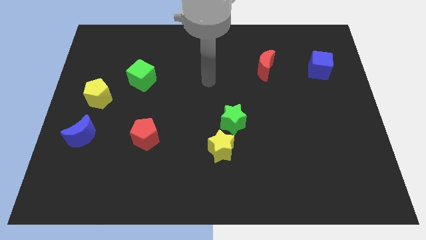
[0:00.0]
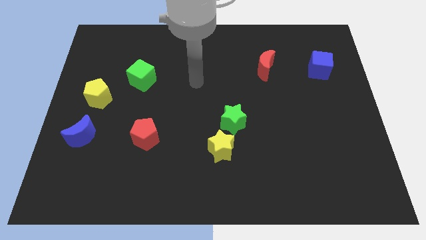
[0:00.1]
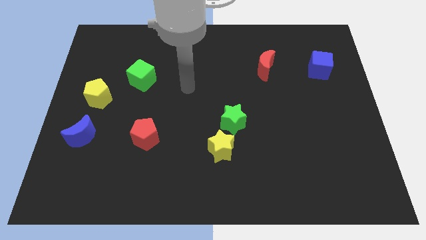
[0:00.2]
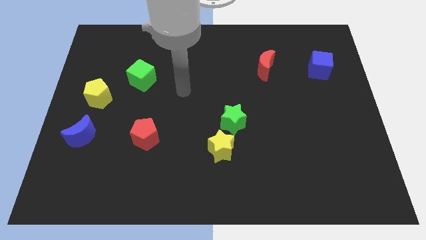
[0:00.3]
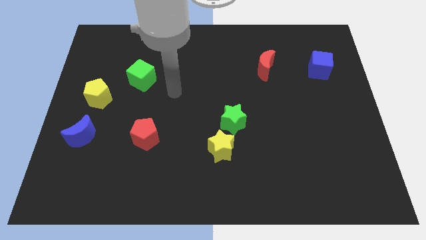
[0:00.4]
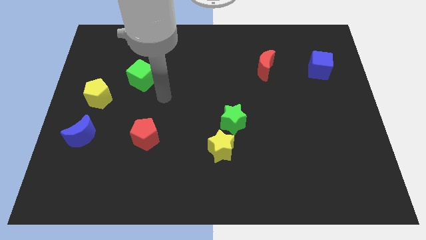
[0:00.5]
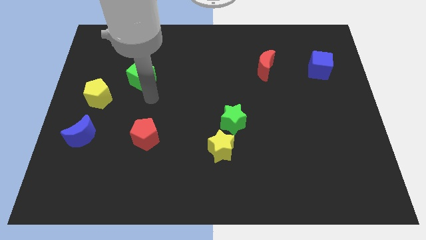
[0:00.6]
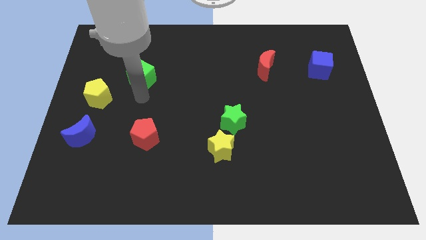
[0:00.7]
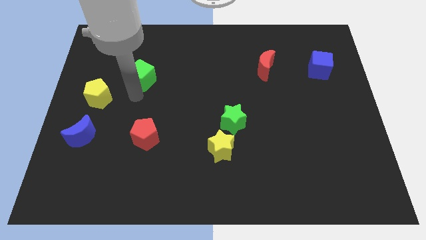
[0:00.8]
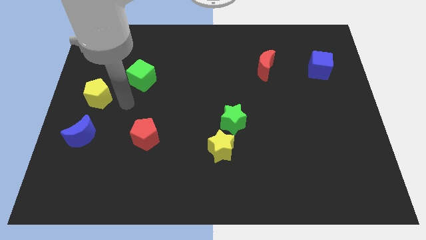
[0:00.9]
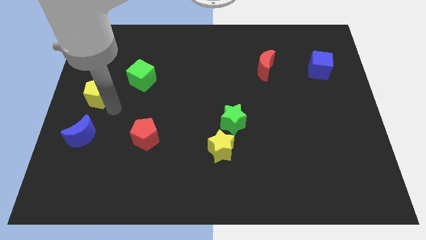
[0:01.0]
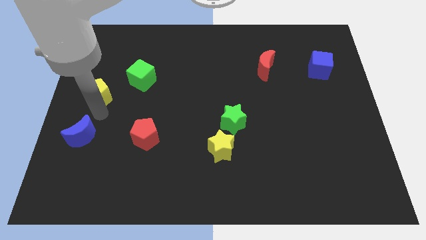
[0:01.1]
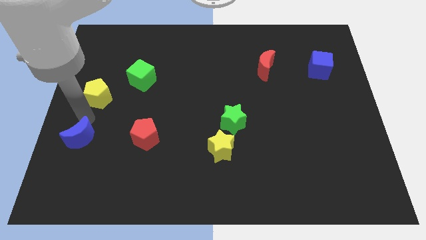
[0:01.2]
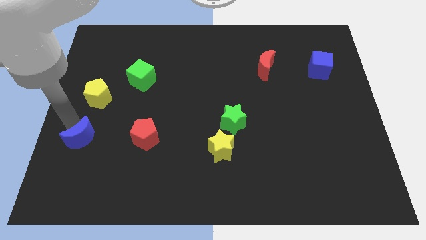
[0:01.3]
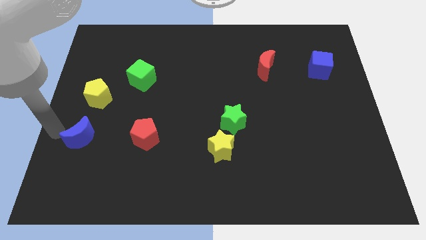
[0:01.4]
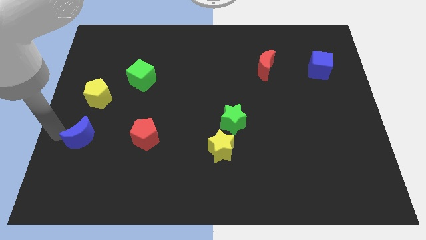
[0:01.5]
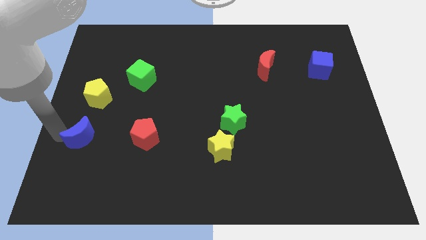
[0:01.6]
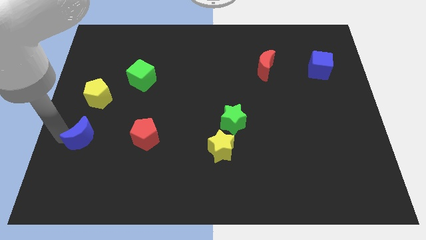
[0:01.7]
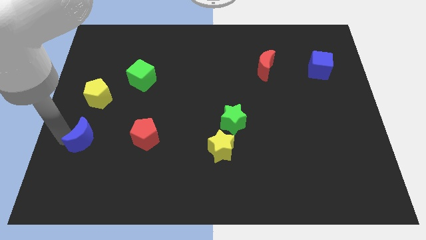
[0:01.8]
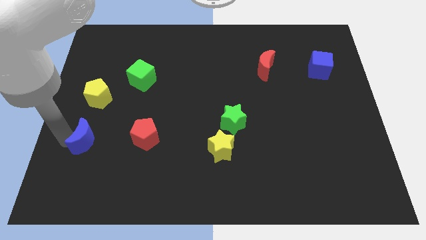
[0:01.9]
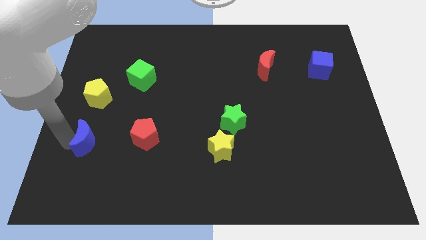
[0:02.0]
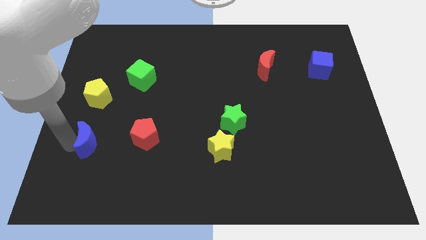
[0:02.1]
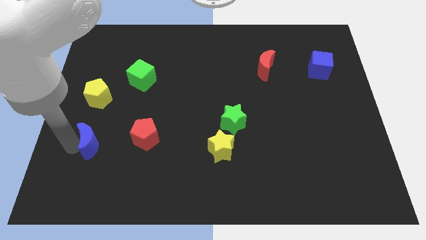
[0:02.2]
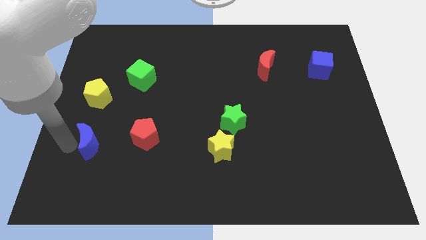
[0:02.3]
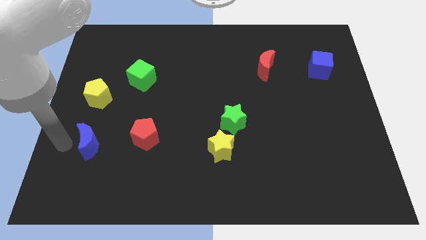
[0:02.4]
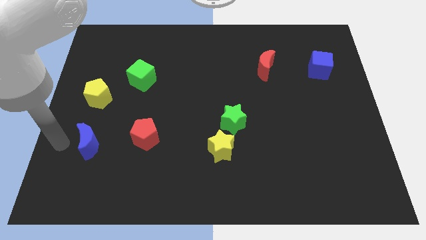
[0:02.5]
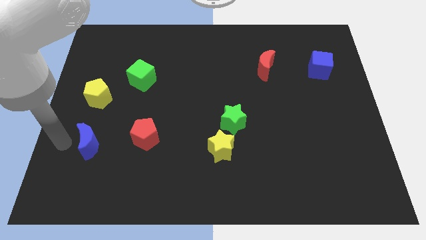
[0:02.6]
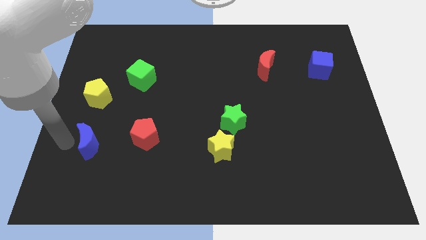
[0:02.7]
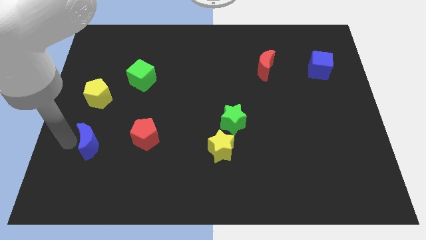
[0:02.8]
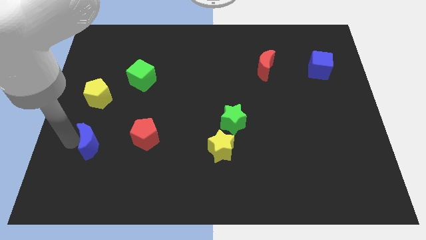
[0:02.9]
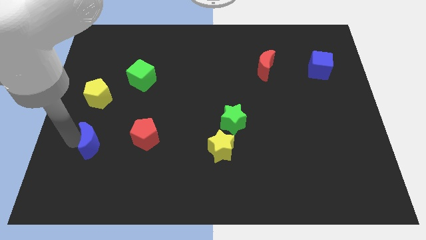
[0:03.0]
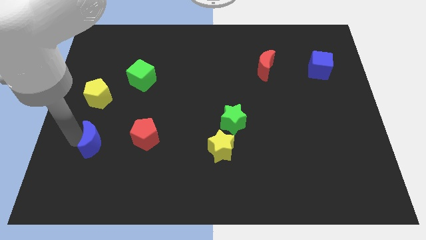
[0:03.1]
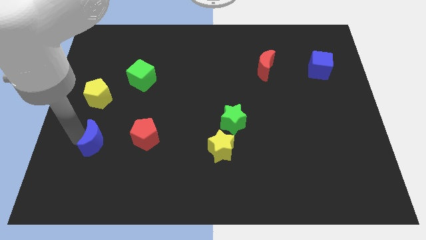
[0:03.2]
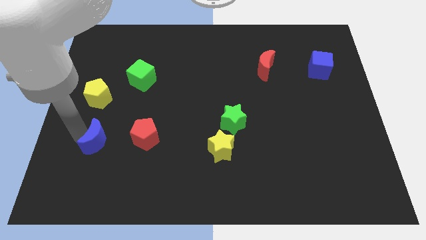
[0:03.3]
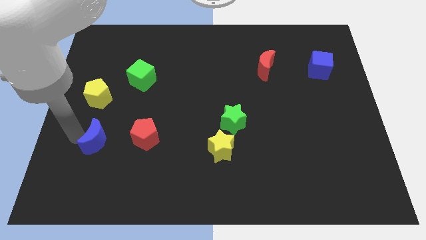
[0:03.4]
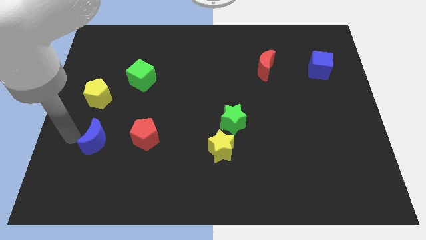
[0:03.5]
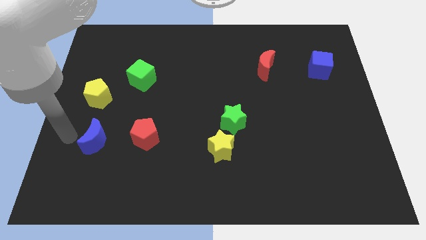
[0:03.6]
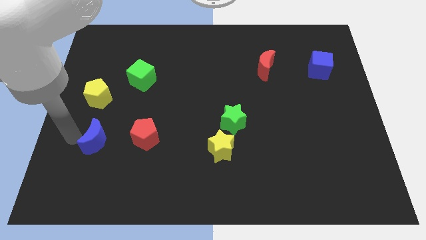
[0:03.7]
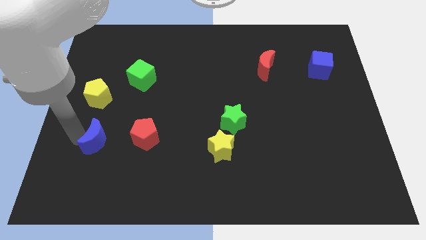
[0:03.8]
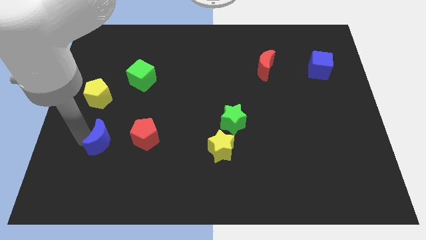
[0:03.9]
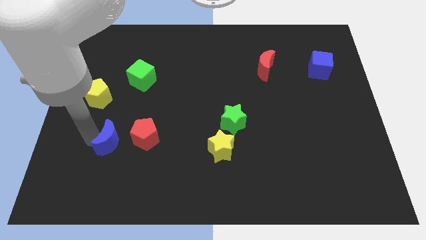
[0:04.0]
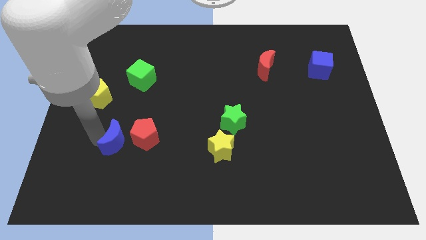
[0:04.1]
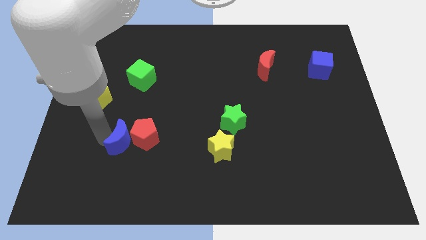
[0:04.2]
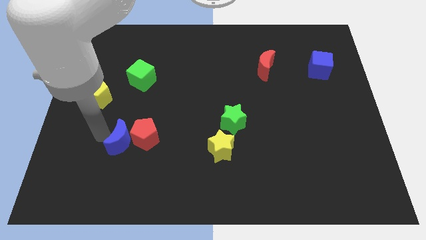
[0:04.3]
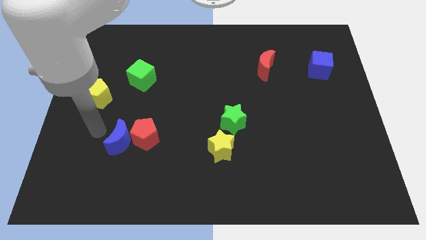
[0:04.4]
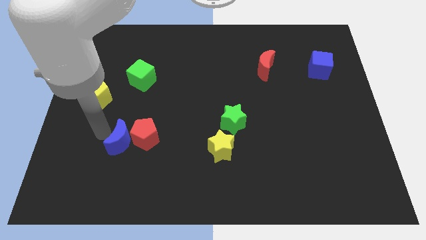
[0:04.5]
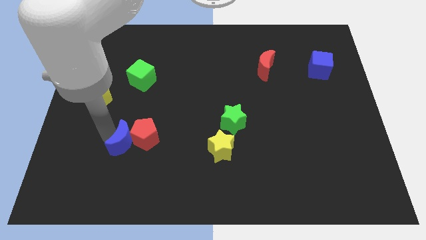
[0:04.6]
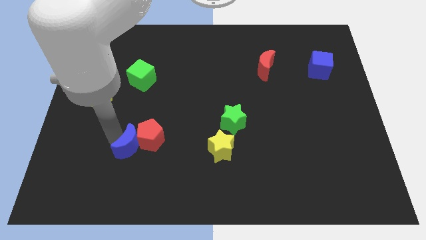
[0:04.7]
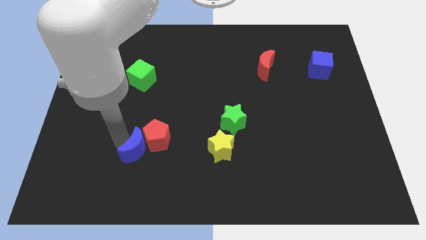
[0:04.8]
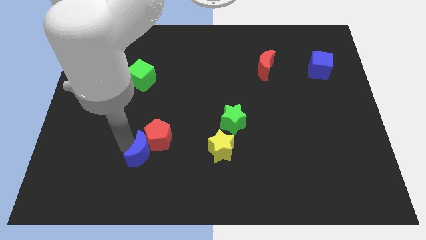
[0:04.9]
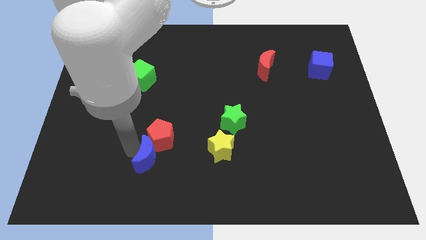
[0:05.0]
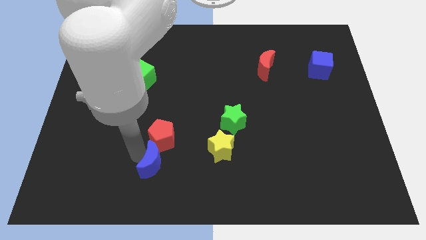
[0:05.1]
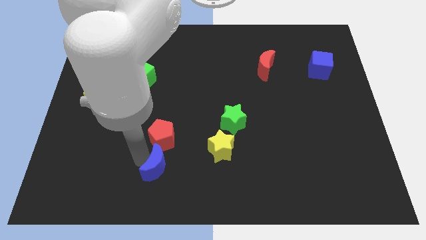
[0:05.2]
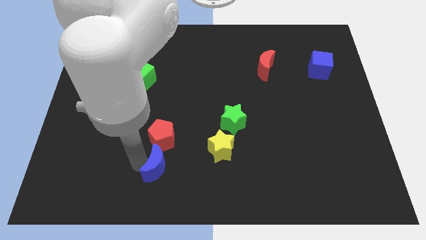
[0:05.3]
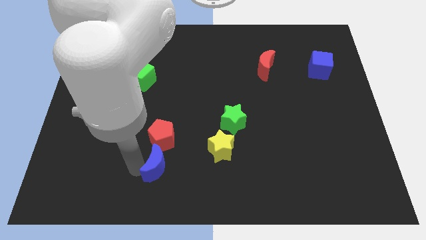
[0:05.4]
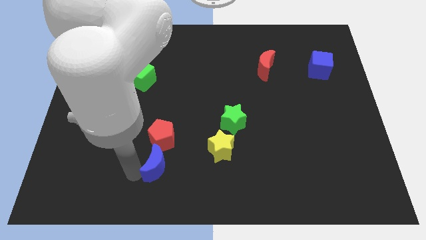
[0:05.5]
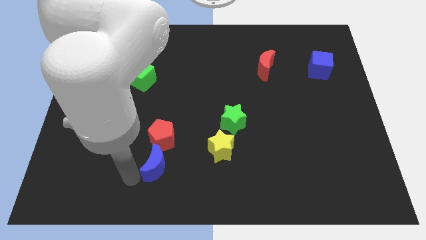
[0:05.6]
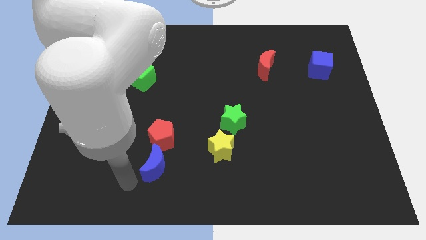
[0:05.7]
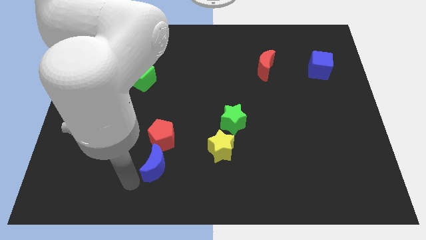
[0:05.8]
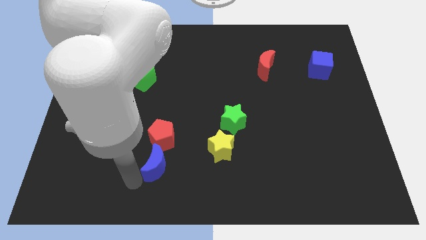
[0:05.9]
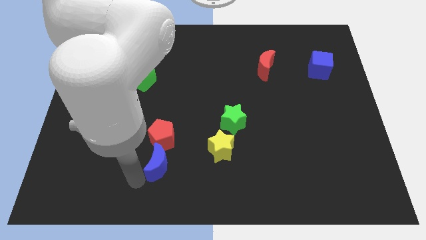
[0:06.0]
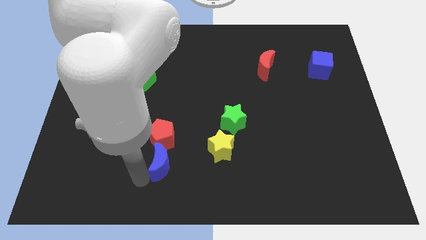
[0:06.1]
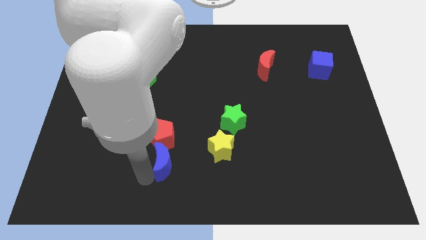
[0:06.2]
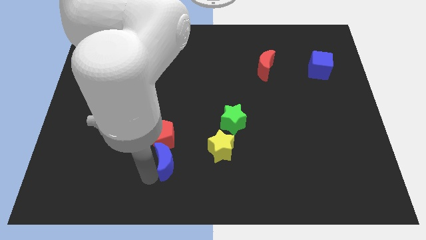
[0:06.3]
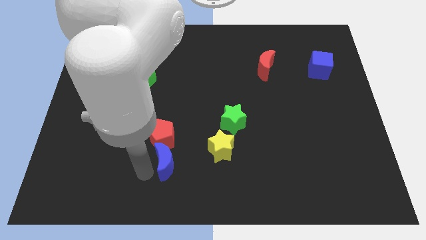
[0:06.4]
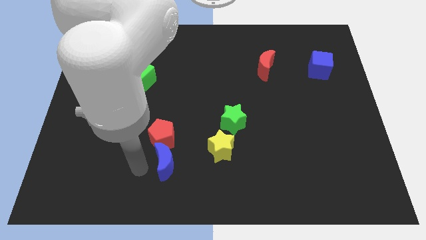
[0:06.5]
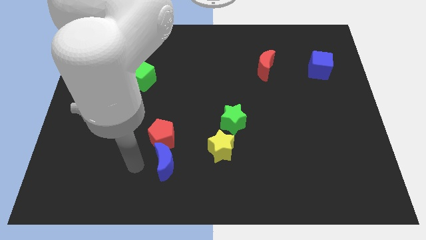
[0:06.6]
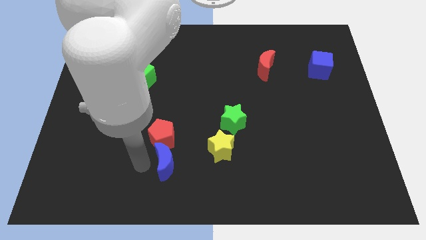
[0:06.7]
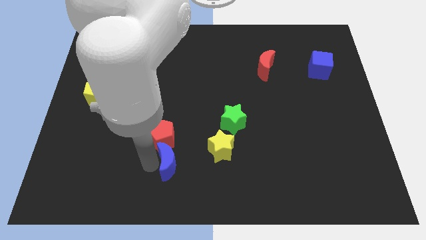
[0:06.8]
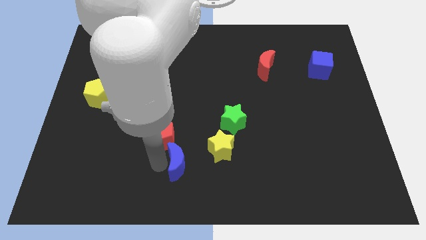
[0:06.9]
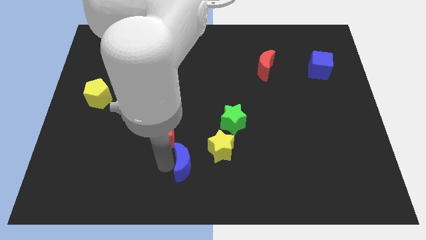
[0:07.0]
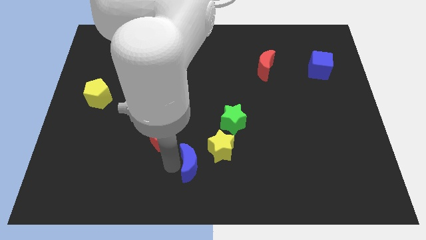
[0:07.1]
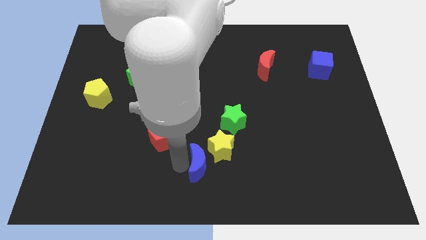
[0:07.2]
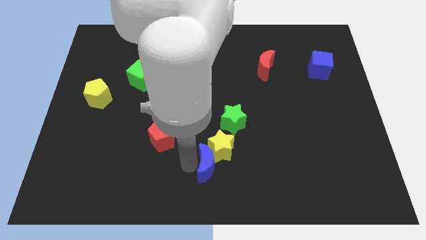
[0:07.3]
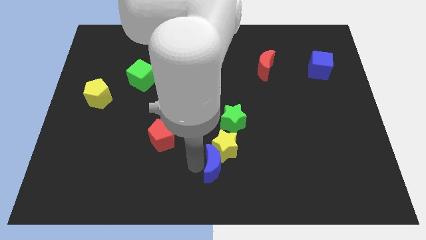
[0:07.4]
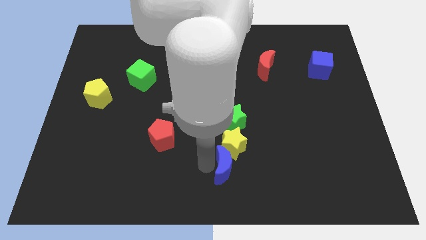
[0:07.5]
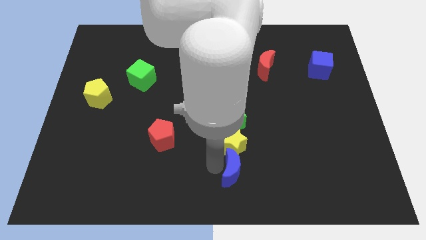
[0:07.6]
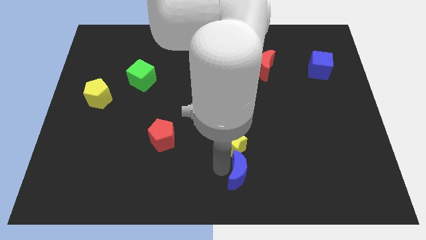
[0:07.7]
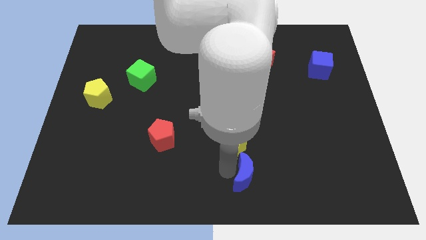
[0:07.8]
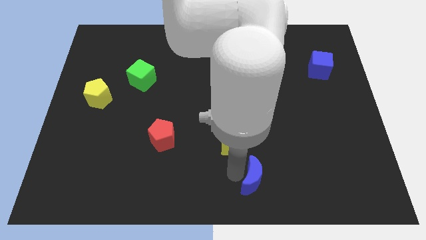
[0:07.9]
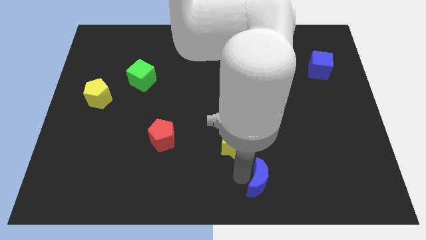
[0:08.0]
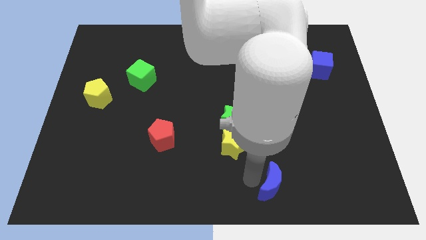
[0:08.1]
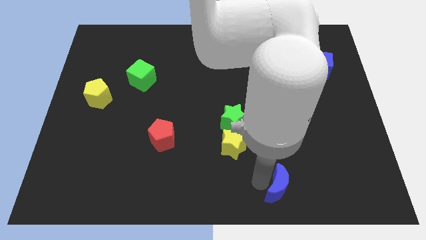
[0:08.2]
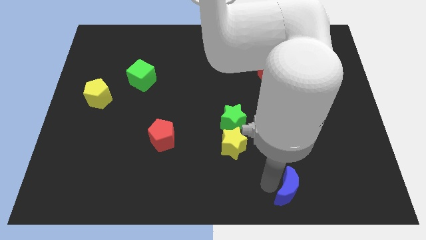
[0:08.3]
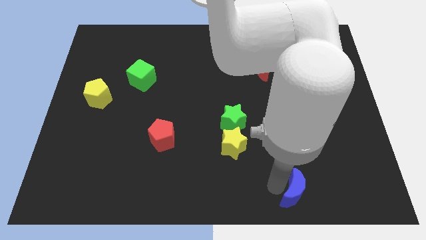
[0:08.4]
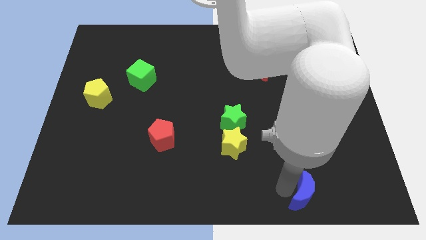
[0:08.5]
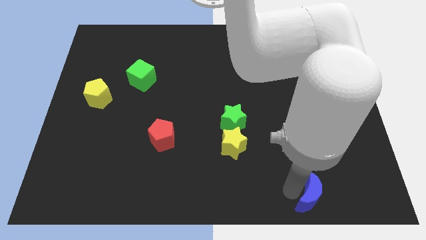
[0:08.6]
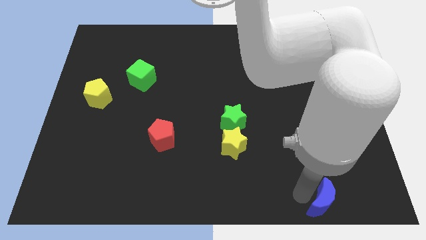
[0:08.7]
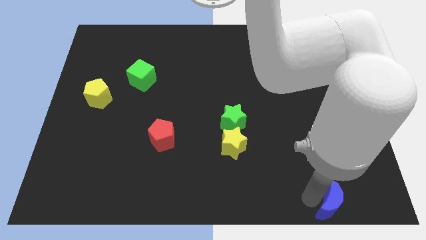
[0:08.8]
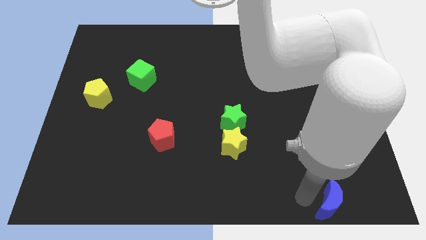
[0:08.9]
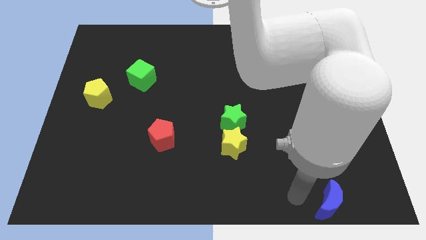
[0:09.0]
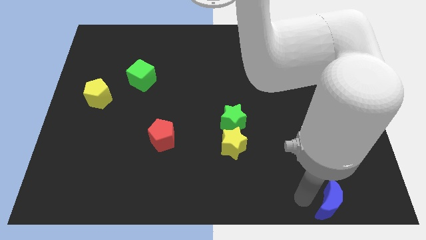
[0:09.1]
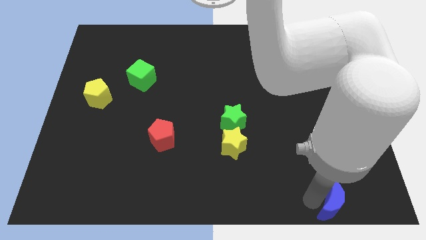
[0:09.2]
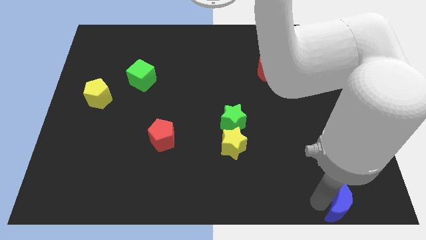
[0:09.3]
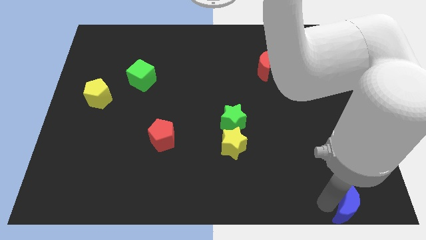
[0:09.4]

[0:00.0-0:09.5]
push the blue moon to the bottom right
